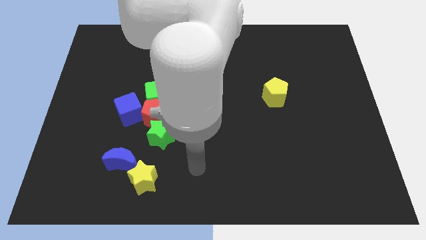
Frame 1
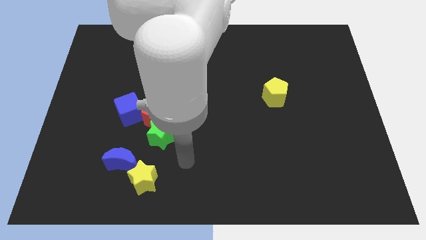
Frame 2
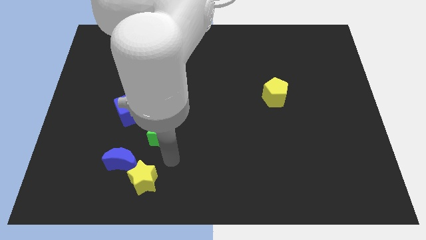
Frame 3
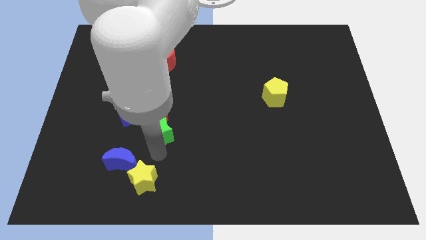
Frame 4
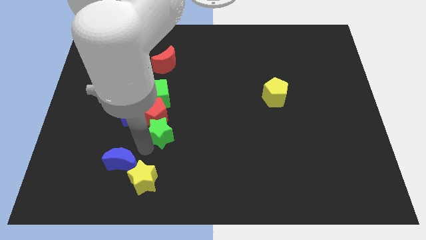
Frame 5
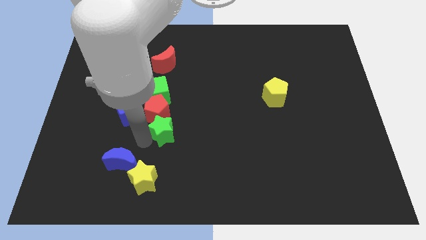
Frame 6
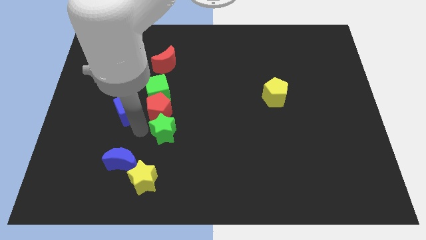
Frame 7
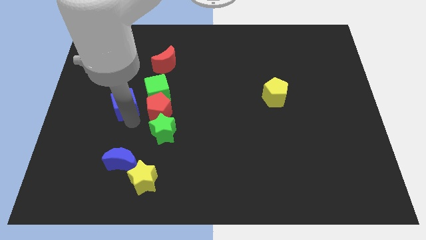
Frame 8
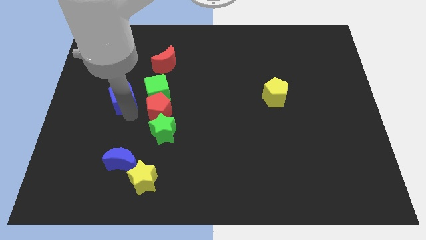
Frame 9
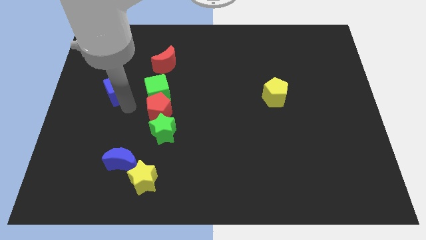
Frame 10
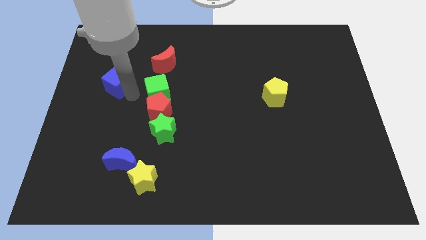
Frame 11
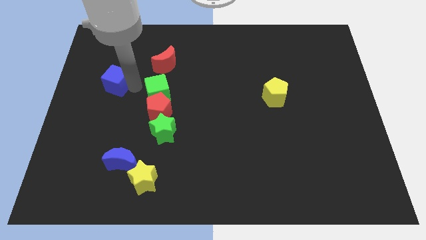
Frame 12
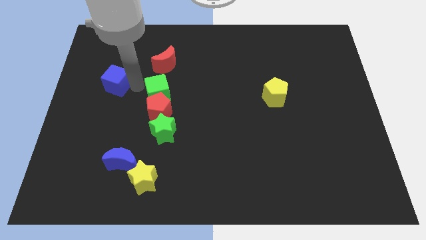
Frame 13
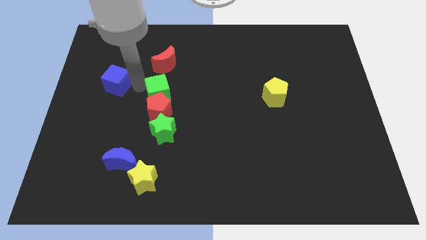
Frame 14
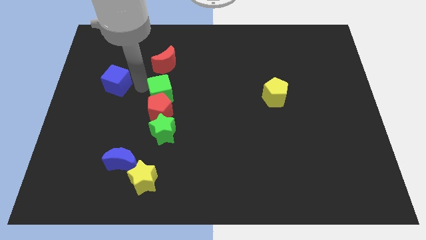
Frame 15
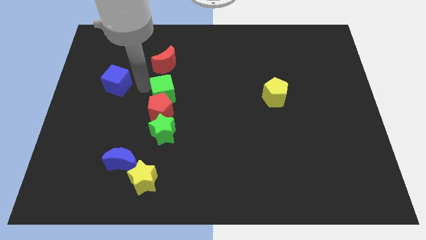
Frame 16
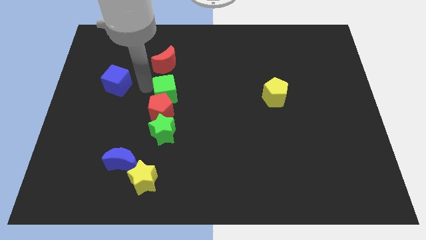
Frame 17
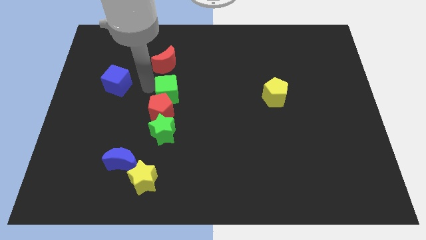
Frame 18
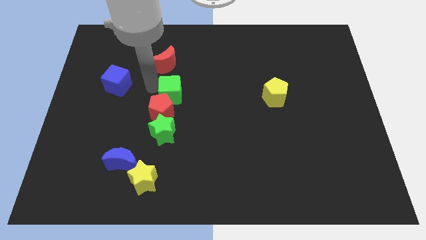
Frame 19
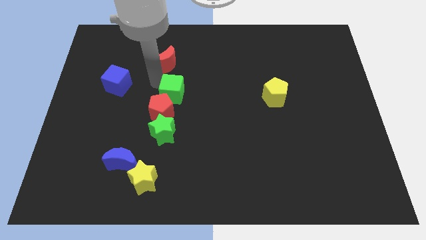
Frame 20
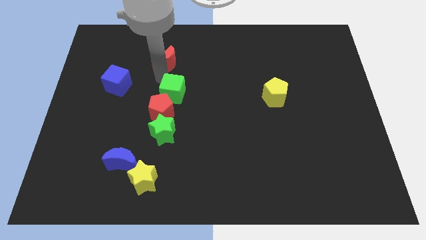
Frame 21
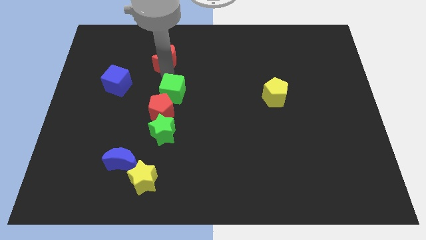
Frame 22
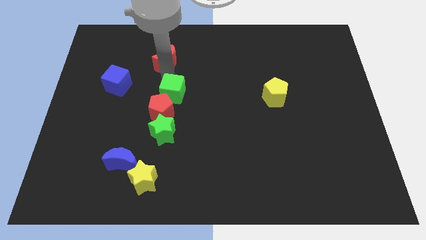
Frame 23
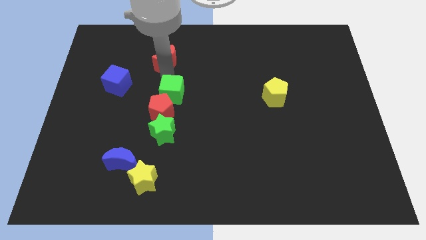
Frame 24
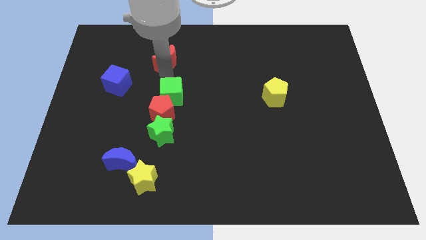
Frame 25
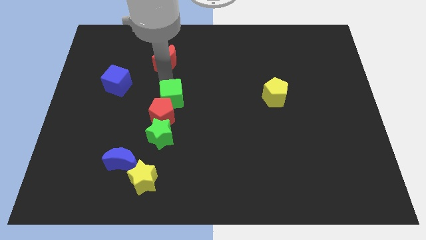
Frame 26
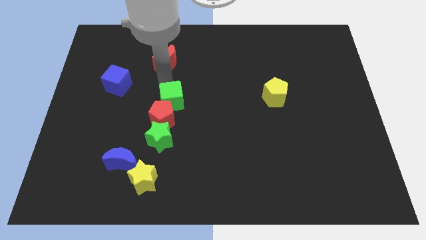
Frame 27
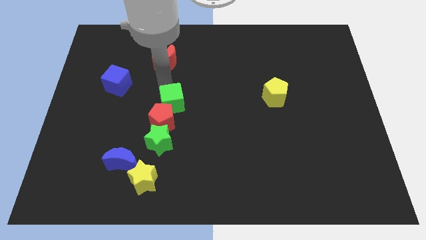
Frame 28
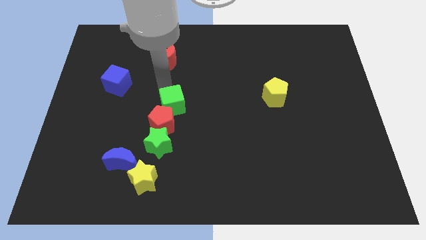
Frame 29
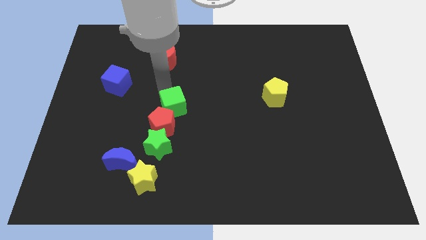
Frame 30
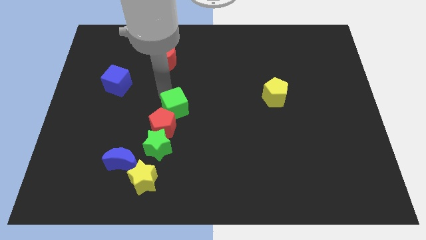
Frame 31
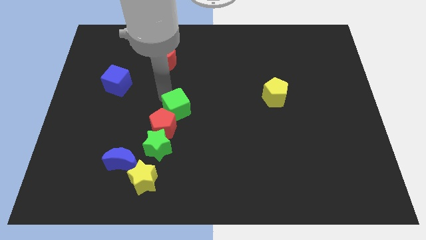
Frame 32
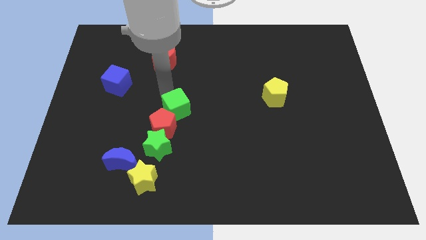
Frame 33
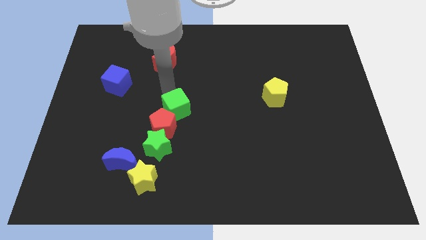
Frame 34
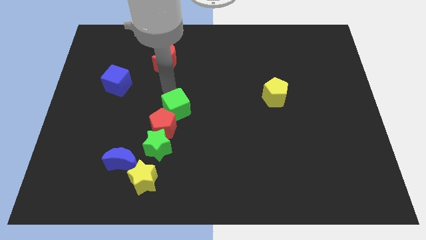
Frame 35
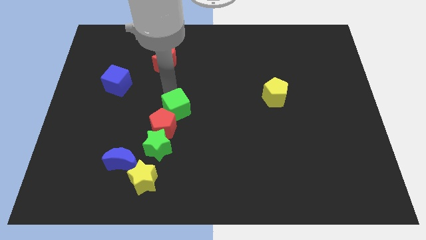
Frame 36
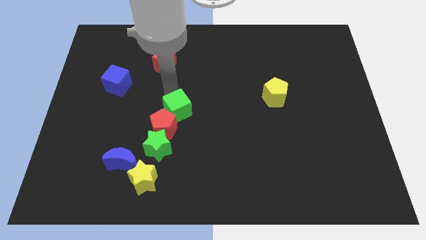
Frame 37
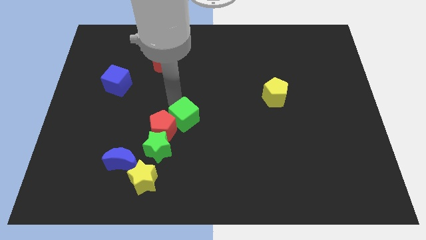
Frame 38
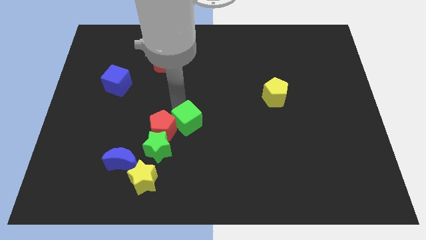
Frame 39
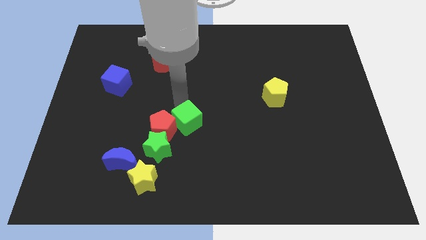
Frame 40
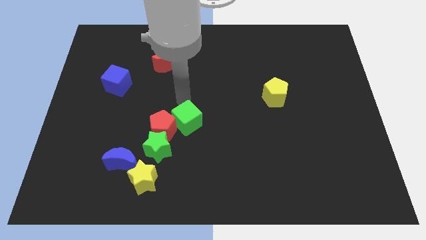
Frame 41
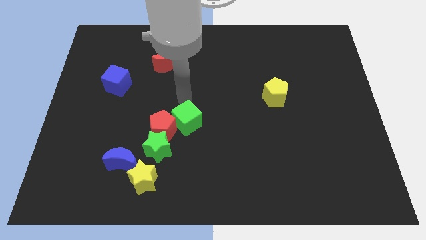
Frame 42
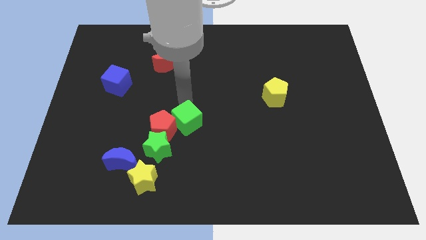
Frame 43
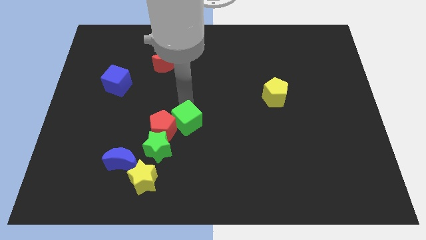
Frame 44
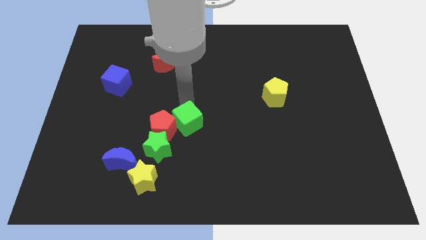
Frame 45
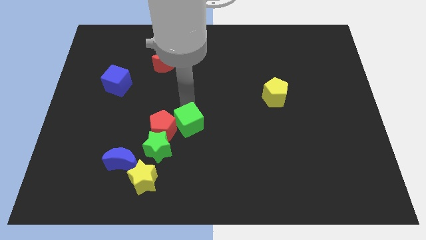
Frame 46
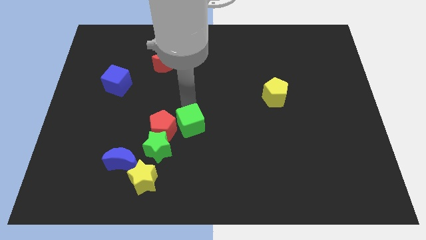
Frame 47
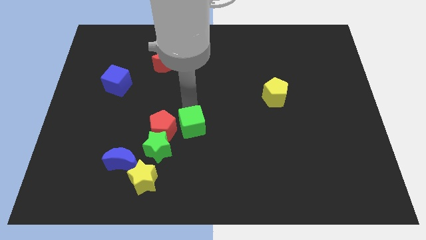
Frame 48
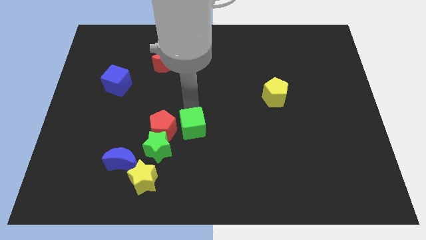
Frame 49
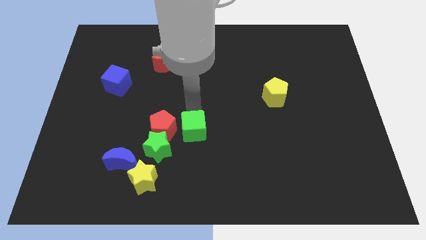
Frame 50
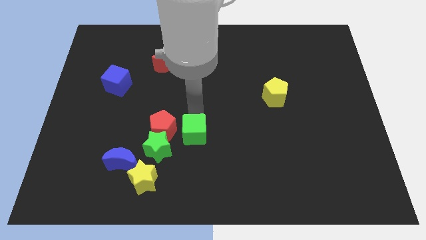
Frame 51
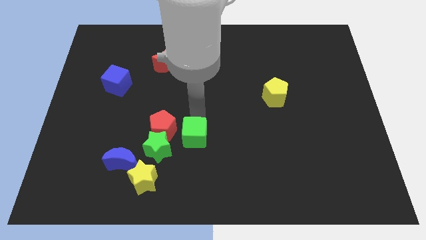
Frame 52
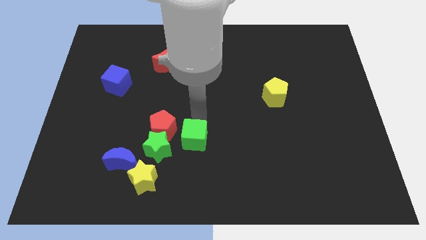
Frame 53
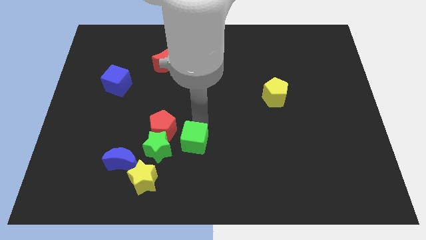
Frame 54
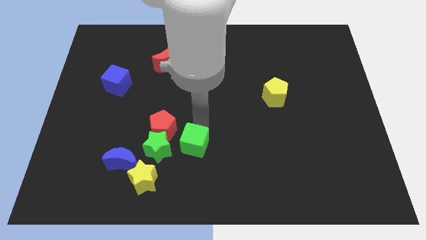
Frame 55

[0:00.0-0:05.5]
slide the green cube diagonally up and to the right of the yellow star

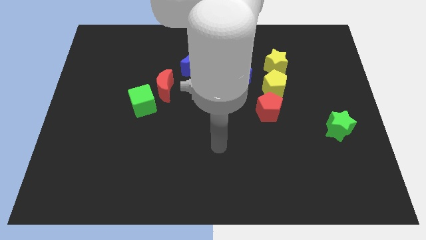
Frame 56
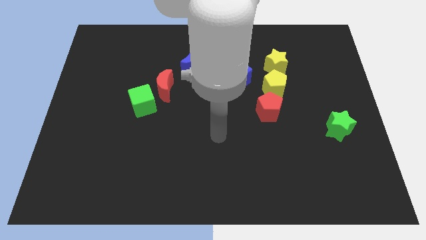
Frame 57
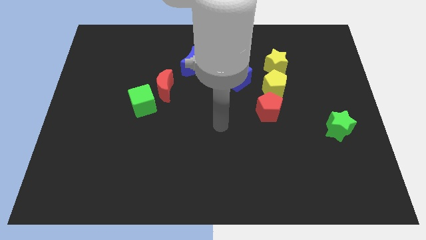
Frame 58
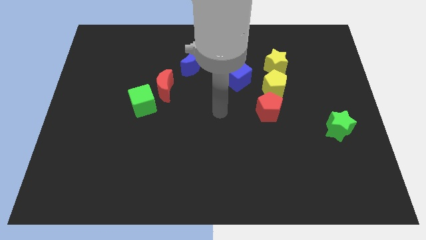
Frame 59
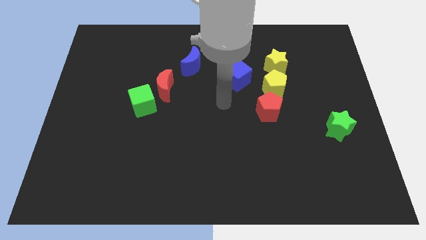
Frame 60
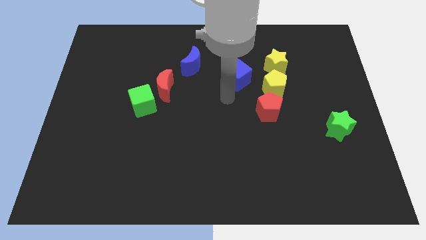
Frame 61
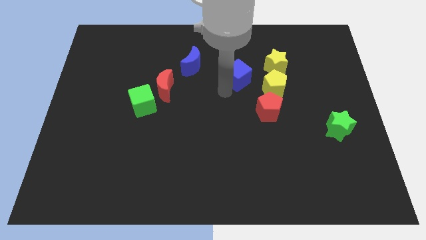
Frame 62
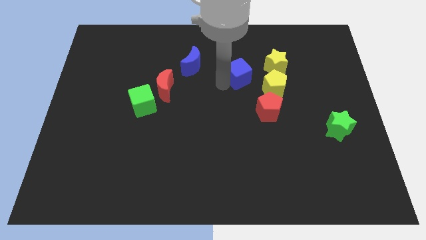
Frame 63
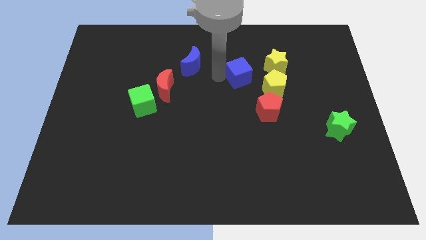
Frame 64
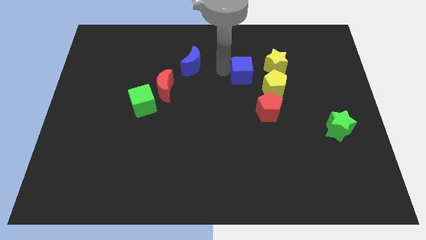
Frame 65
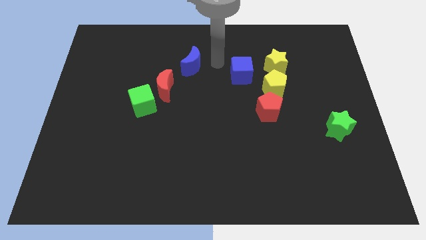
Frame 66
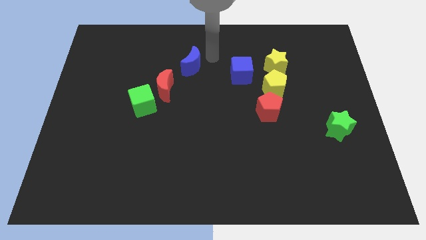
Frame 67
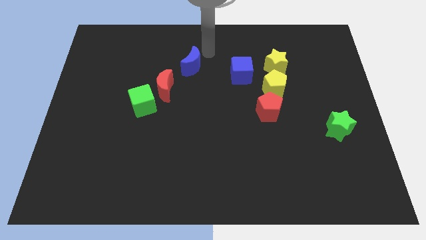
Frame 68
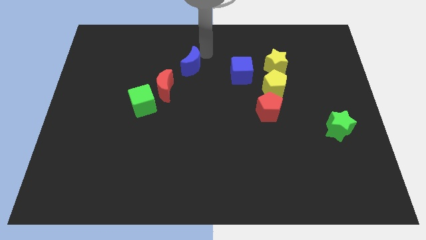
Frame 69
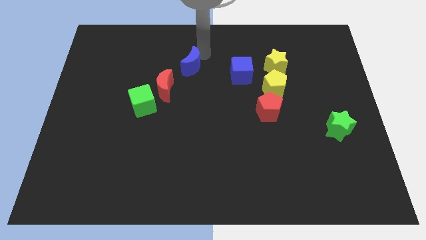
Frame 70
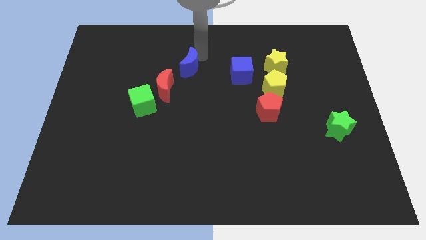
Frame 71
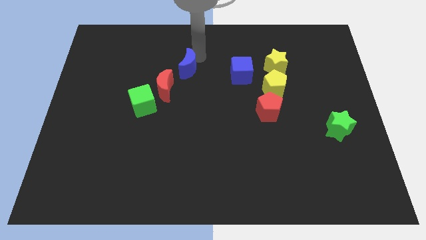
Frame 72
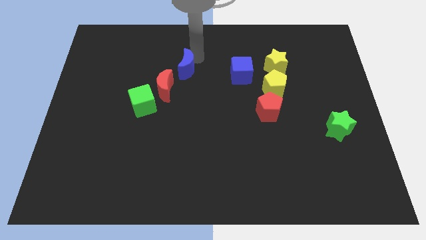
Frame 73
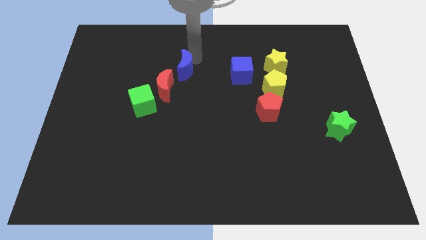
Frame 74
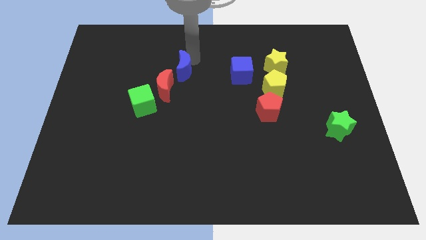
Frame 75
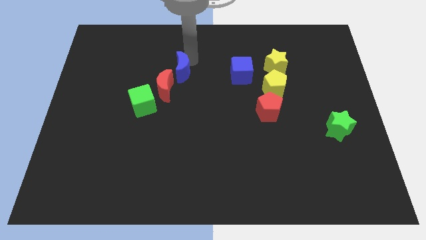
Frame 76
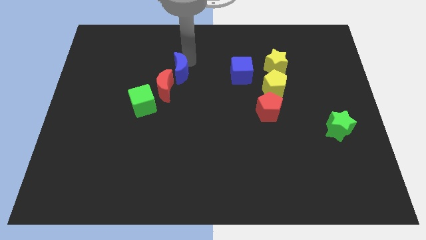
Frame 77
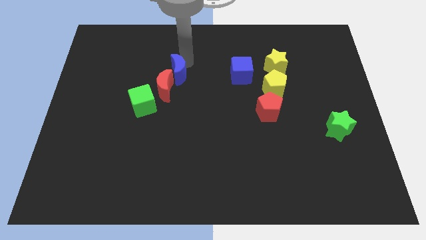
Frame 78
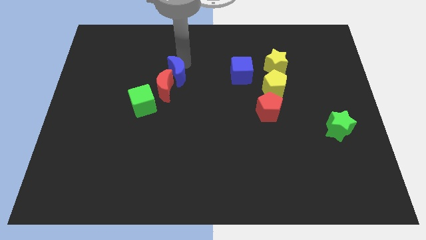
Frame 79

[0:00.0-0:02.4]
put the blue moon to the top right side of the green cube
